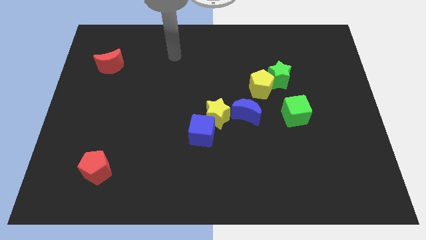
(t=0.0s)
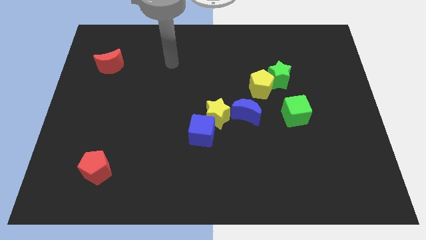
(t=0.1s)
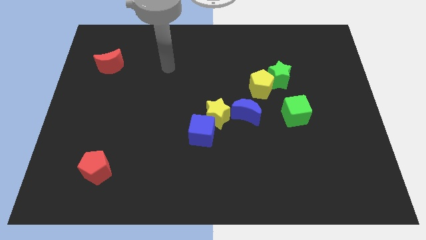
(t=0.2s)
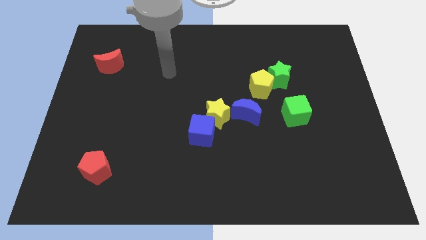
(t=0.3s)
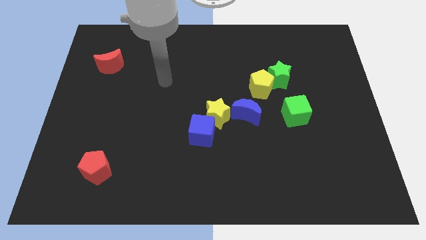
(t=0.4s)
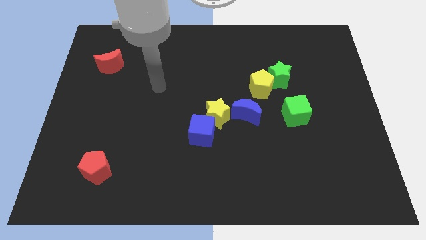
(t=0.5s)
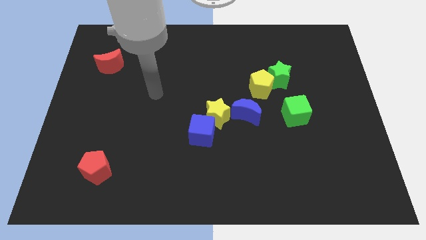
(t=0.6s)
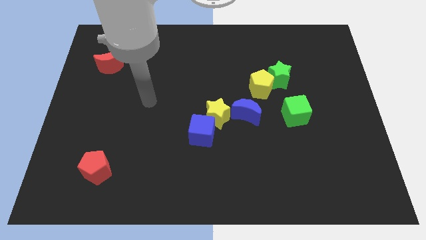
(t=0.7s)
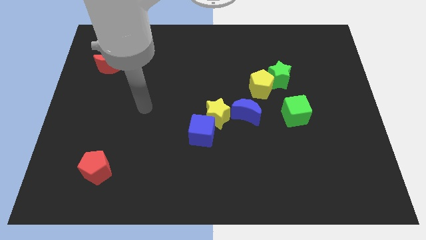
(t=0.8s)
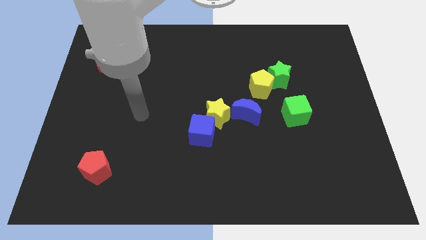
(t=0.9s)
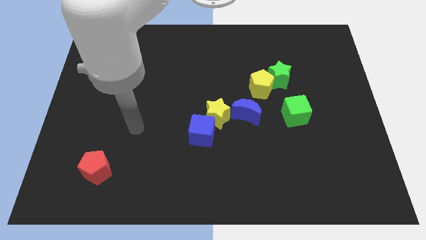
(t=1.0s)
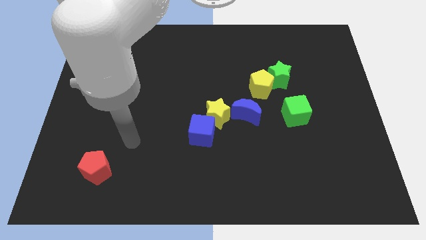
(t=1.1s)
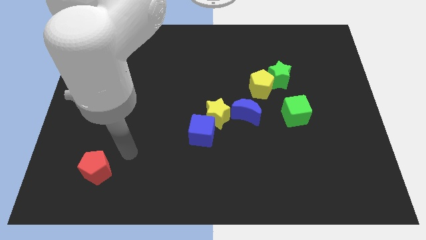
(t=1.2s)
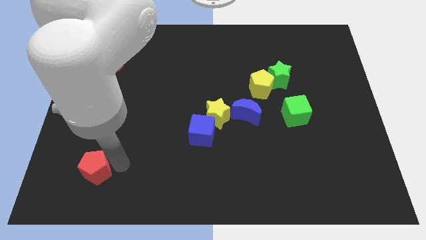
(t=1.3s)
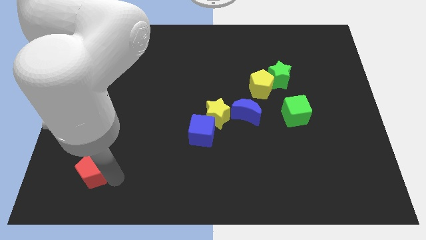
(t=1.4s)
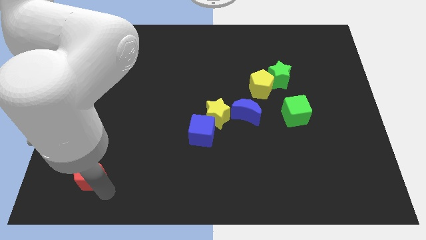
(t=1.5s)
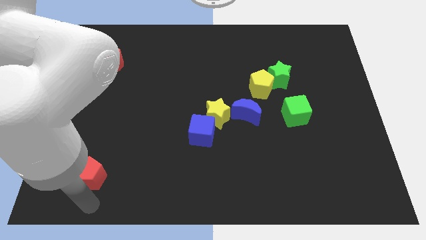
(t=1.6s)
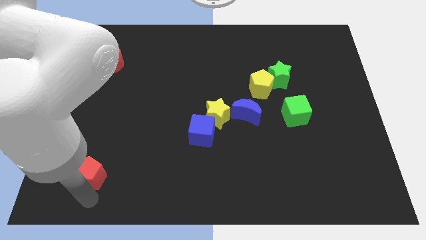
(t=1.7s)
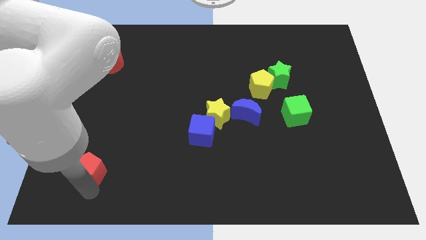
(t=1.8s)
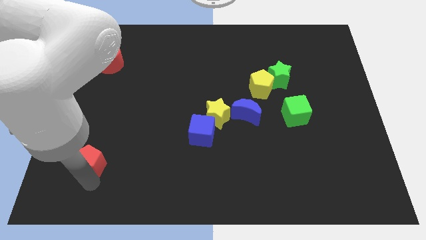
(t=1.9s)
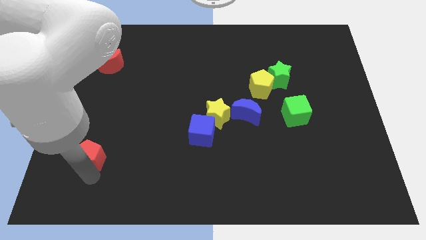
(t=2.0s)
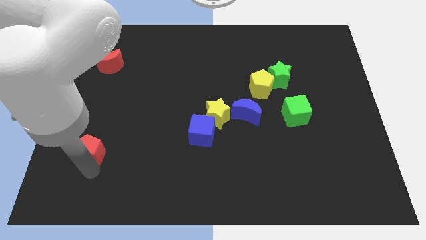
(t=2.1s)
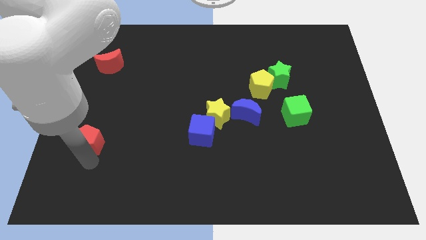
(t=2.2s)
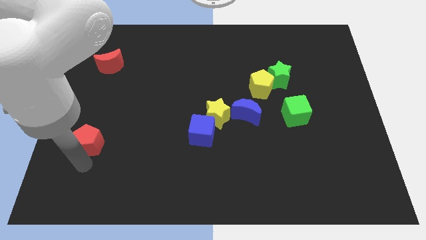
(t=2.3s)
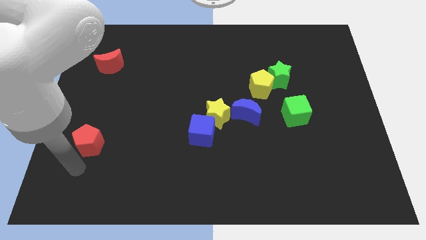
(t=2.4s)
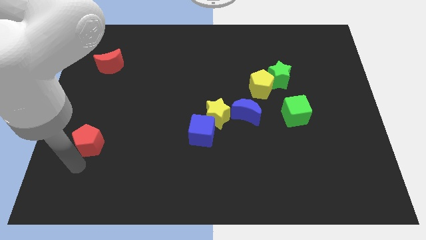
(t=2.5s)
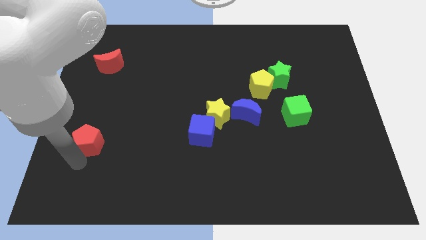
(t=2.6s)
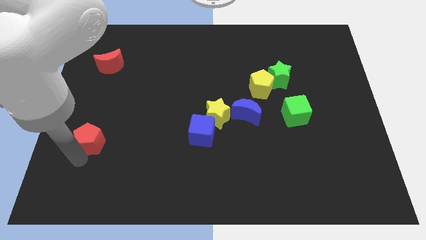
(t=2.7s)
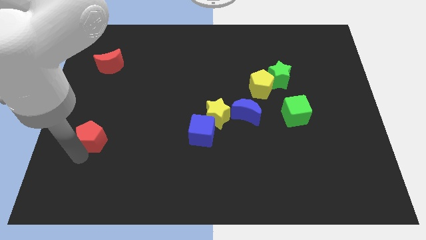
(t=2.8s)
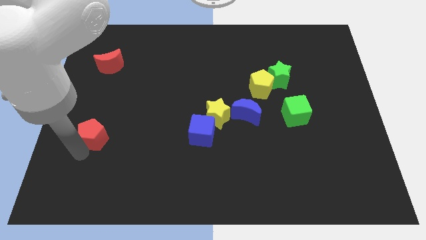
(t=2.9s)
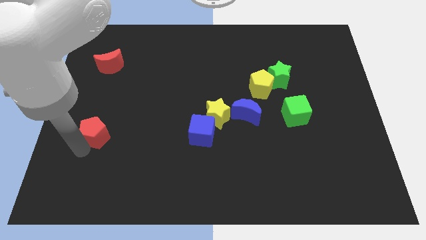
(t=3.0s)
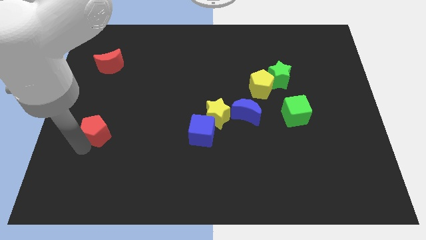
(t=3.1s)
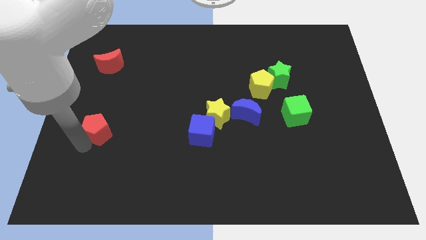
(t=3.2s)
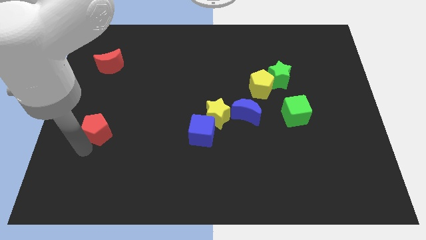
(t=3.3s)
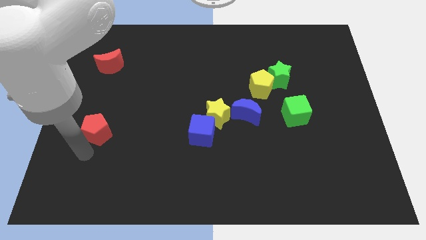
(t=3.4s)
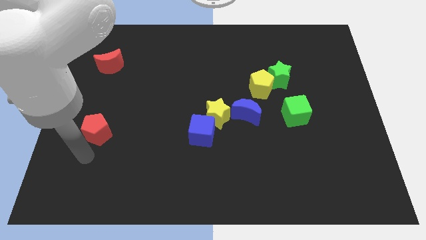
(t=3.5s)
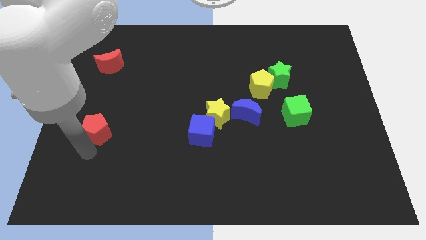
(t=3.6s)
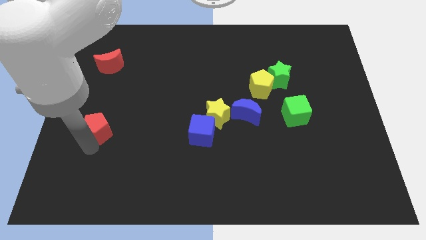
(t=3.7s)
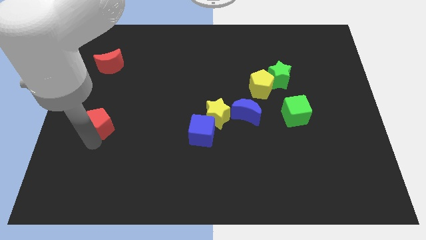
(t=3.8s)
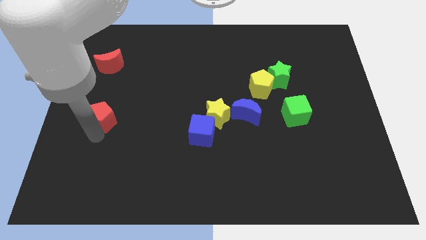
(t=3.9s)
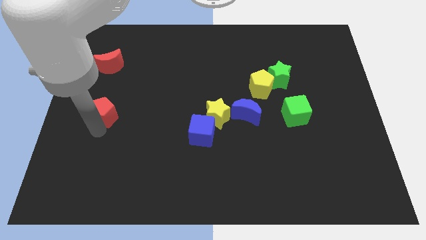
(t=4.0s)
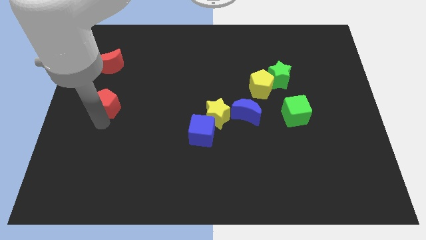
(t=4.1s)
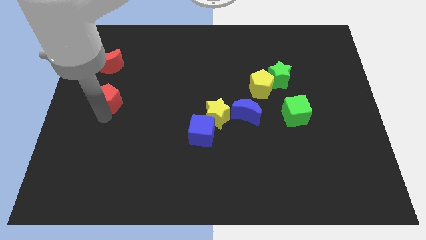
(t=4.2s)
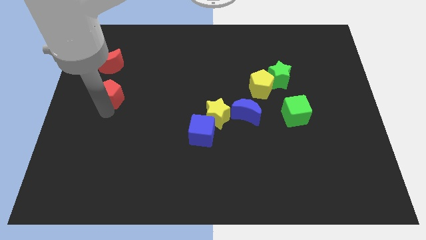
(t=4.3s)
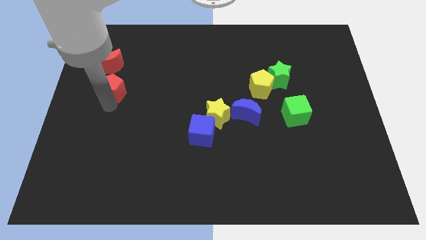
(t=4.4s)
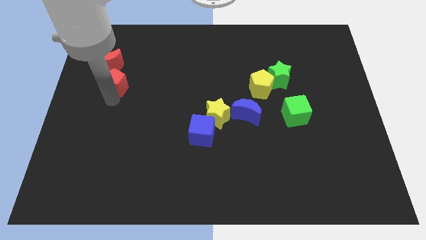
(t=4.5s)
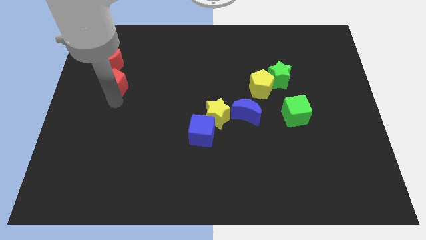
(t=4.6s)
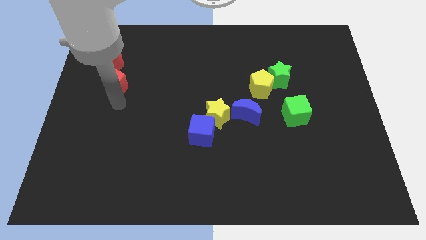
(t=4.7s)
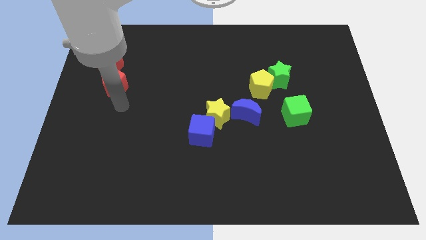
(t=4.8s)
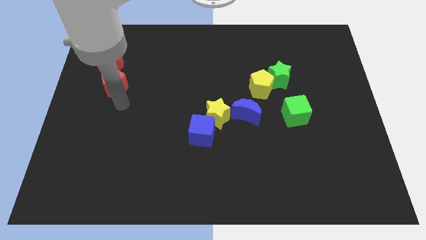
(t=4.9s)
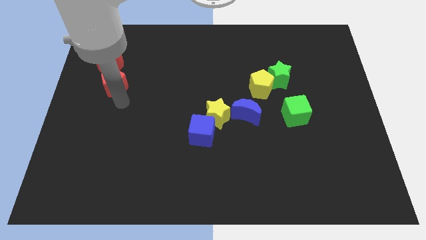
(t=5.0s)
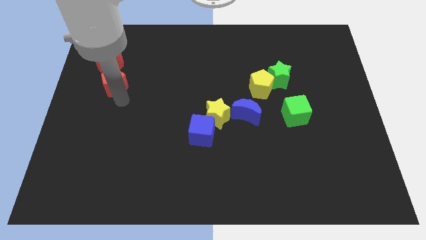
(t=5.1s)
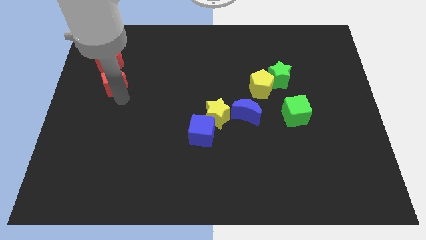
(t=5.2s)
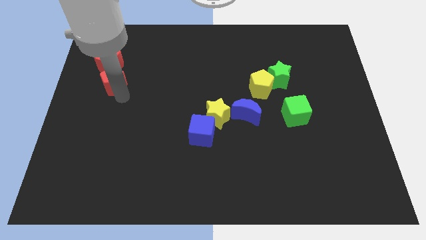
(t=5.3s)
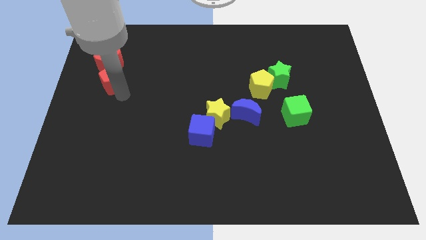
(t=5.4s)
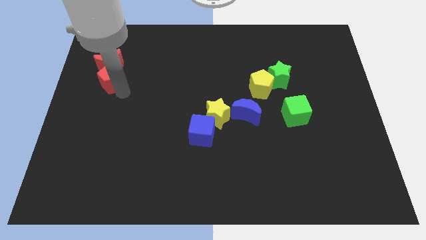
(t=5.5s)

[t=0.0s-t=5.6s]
slide the red pentagon next to the red moon

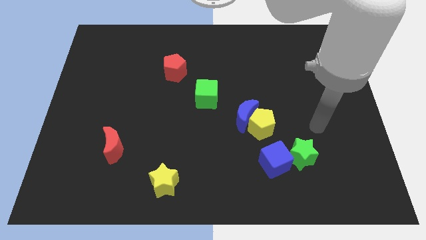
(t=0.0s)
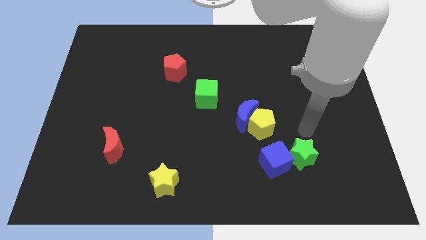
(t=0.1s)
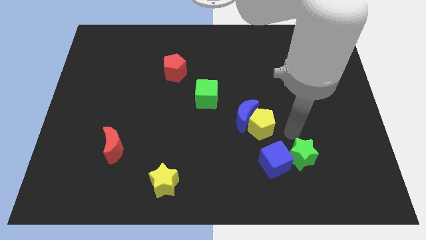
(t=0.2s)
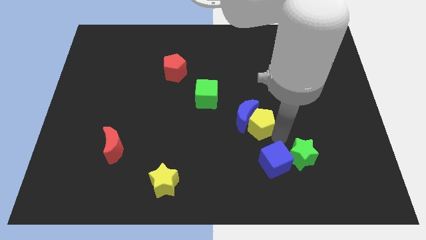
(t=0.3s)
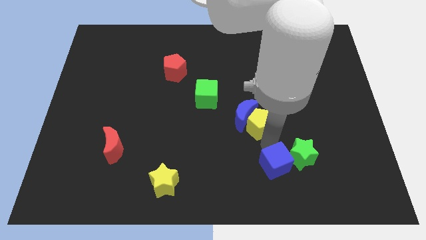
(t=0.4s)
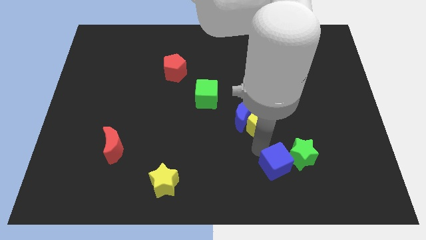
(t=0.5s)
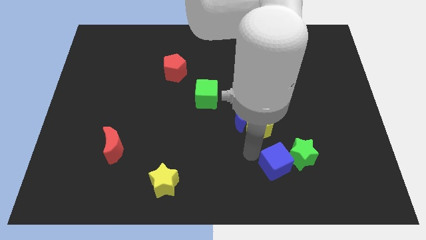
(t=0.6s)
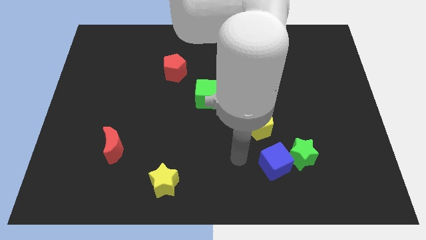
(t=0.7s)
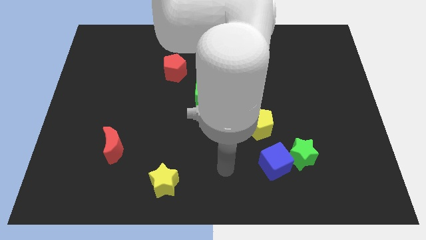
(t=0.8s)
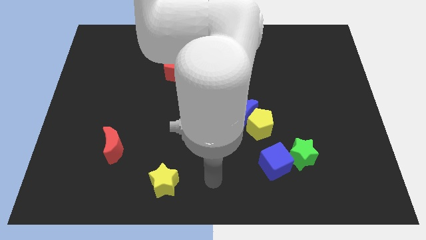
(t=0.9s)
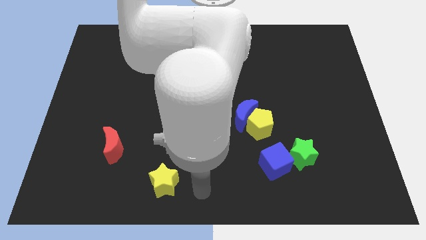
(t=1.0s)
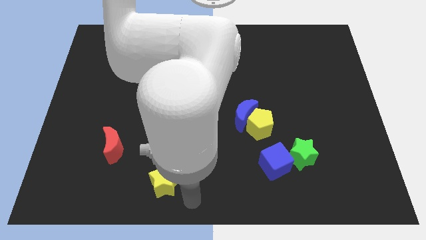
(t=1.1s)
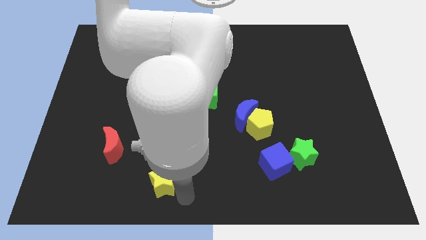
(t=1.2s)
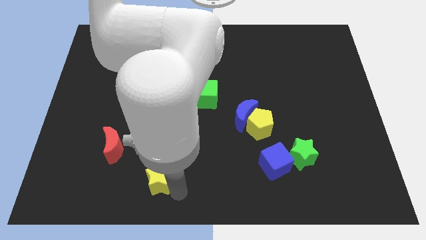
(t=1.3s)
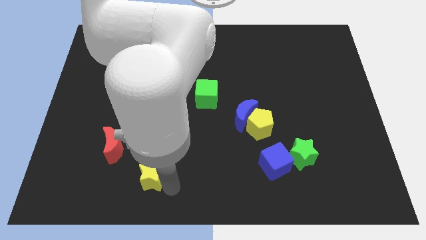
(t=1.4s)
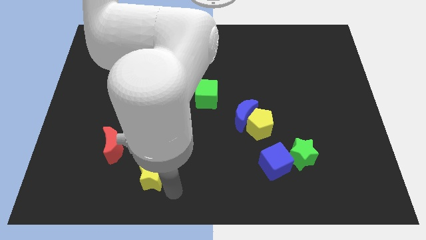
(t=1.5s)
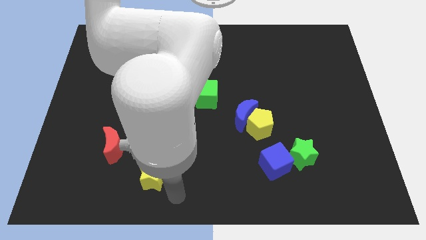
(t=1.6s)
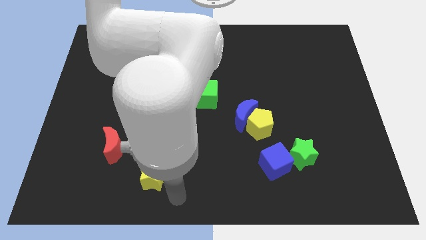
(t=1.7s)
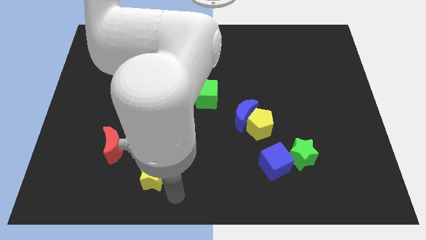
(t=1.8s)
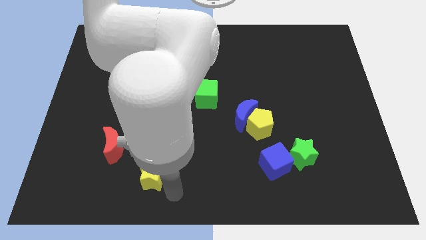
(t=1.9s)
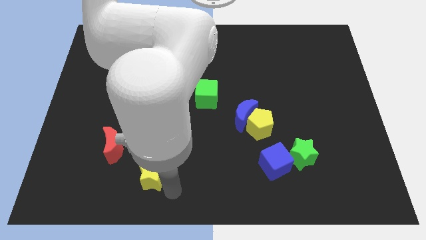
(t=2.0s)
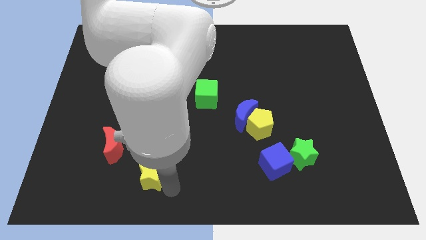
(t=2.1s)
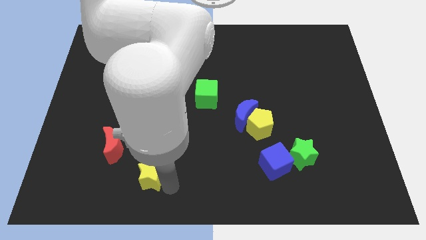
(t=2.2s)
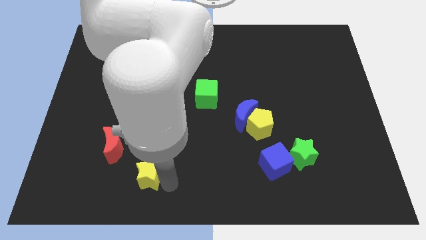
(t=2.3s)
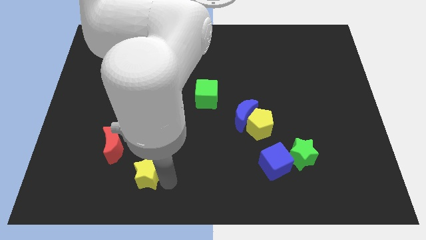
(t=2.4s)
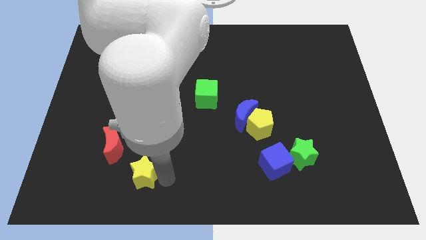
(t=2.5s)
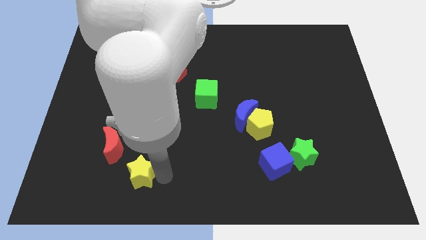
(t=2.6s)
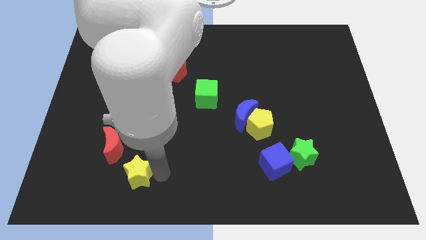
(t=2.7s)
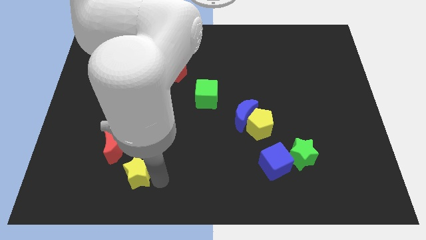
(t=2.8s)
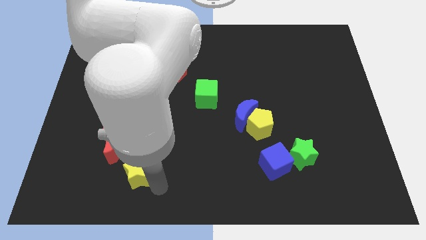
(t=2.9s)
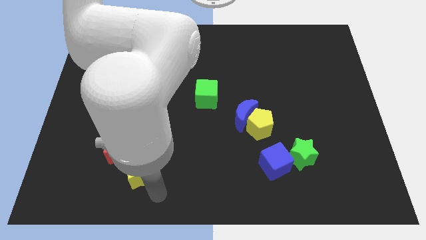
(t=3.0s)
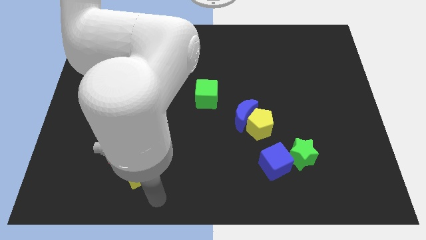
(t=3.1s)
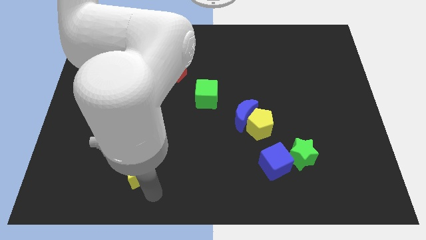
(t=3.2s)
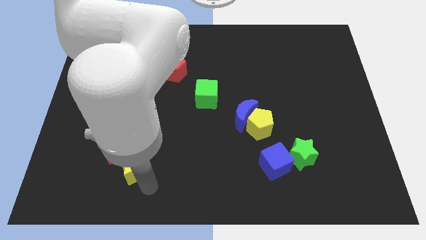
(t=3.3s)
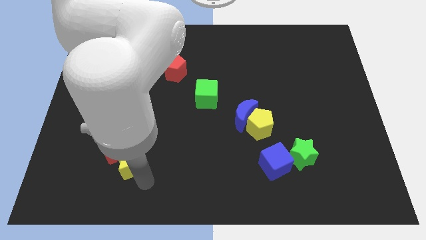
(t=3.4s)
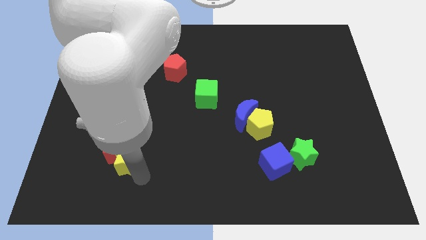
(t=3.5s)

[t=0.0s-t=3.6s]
slide the yellow star next to the red moon
